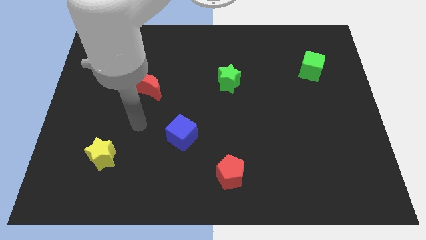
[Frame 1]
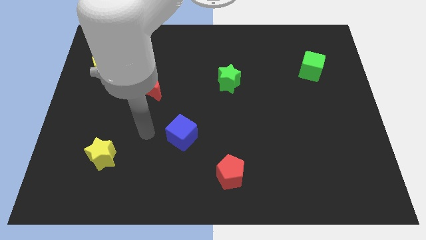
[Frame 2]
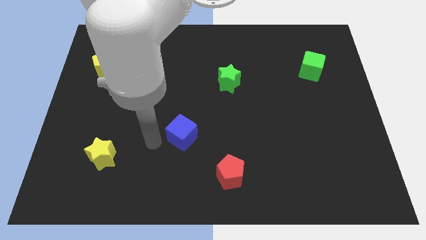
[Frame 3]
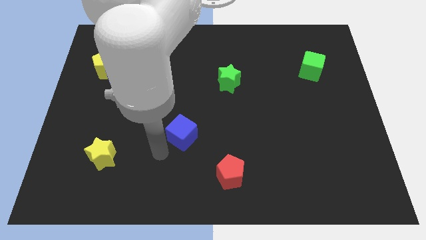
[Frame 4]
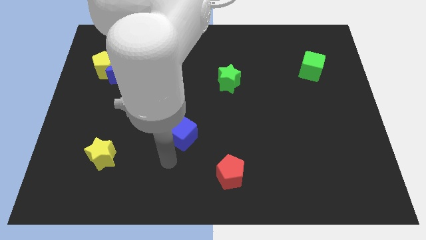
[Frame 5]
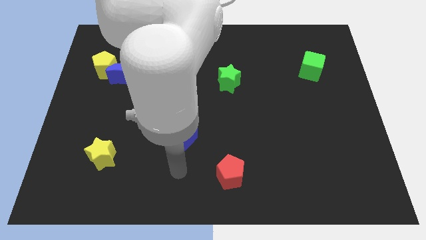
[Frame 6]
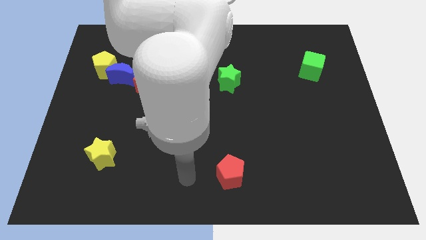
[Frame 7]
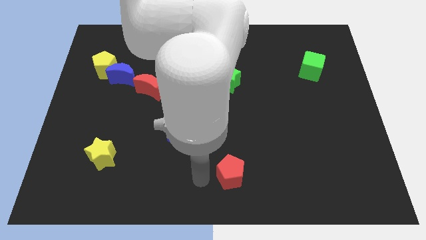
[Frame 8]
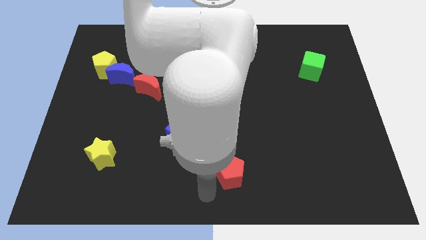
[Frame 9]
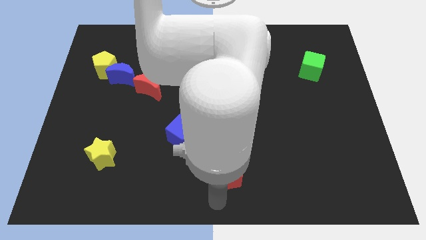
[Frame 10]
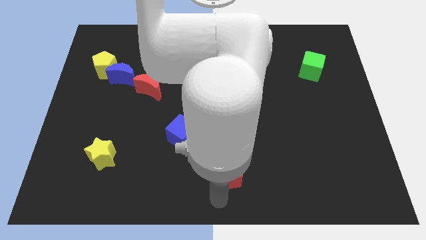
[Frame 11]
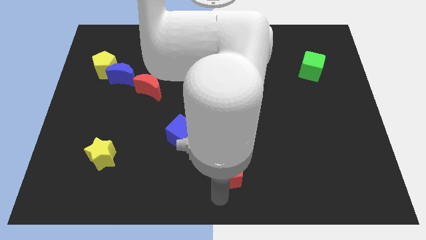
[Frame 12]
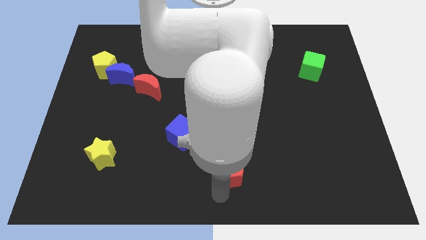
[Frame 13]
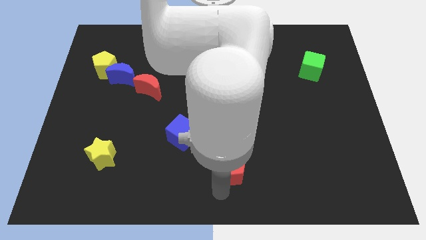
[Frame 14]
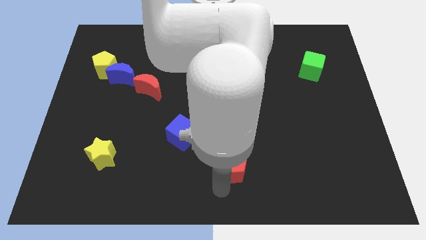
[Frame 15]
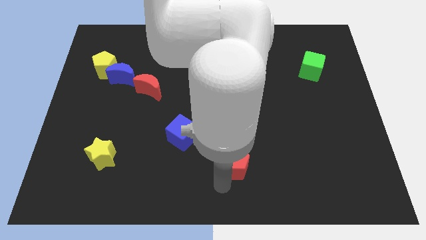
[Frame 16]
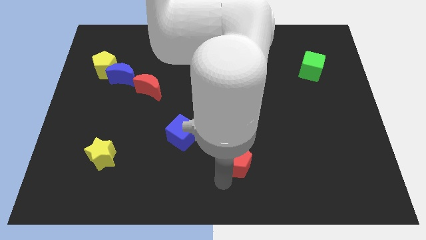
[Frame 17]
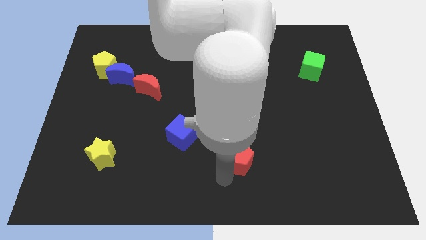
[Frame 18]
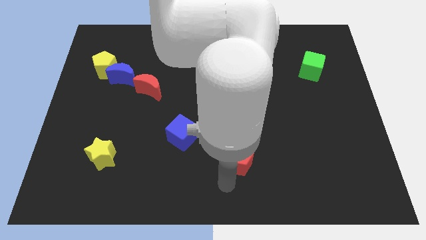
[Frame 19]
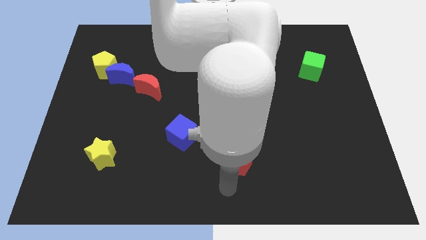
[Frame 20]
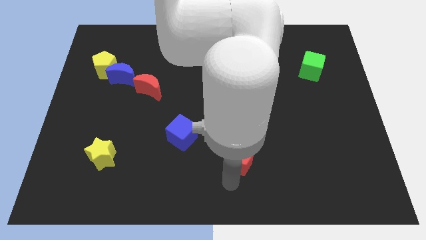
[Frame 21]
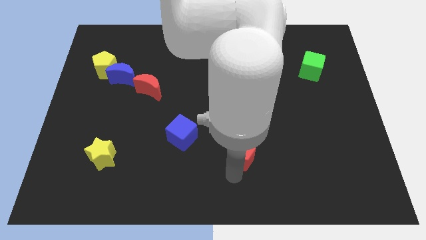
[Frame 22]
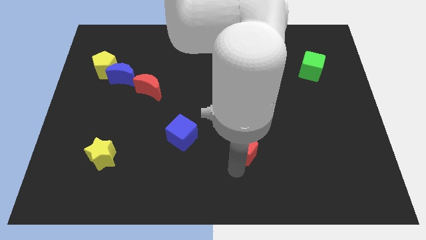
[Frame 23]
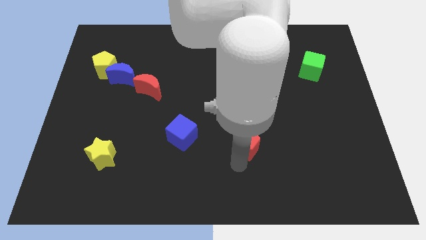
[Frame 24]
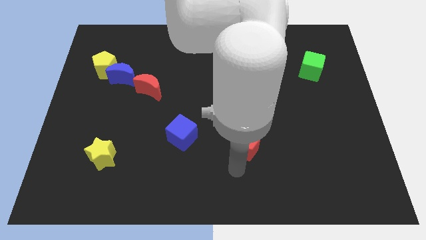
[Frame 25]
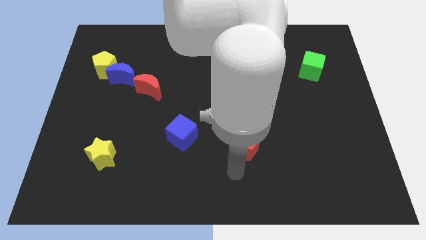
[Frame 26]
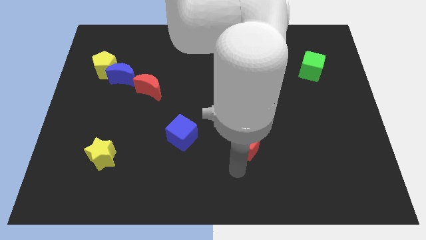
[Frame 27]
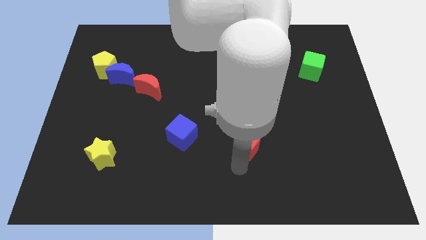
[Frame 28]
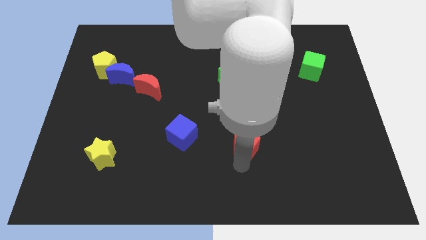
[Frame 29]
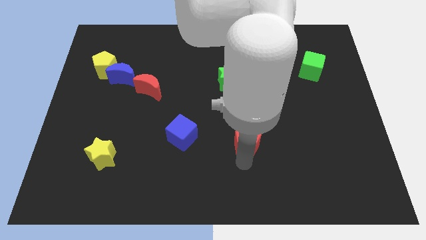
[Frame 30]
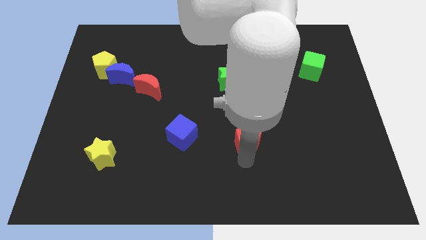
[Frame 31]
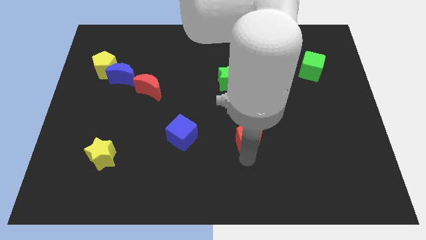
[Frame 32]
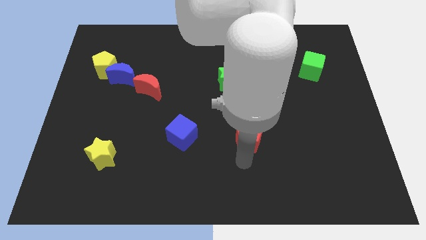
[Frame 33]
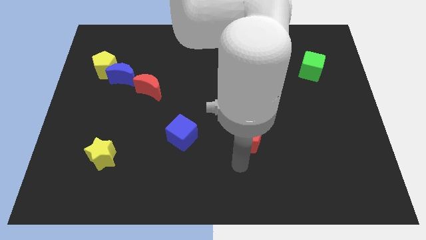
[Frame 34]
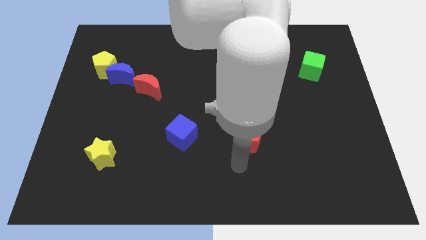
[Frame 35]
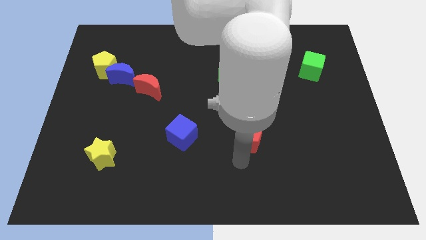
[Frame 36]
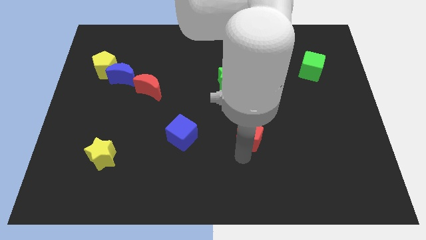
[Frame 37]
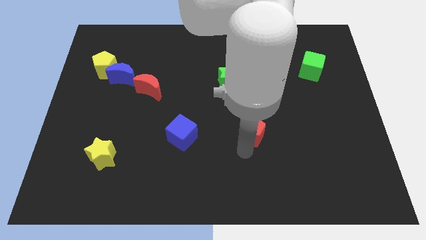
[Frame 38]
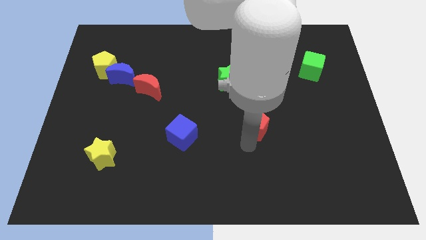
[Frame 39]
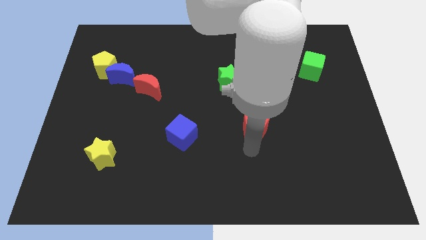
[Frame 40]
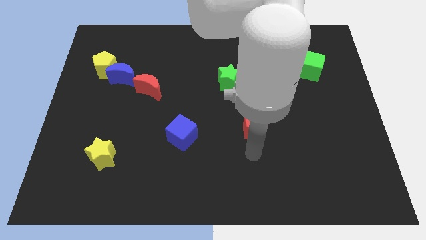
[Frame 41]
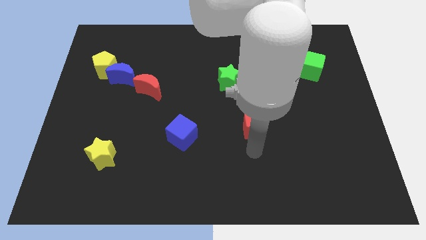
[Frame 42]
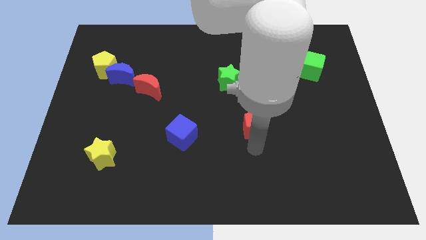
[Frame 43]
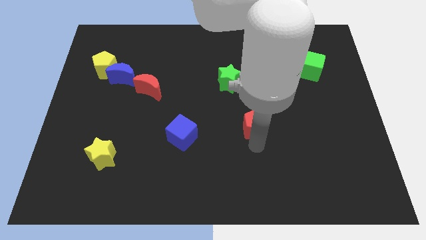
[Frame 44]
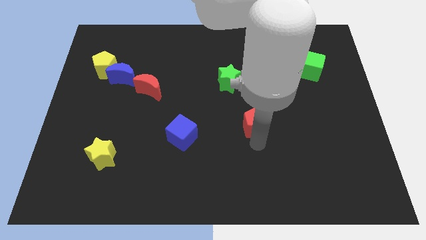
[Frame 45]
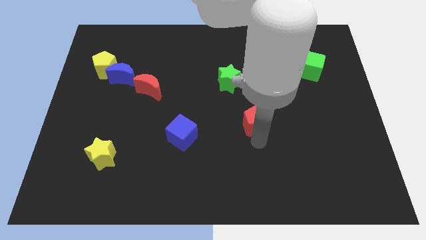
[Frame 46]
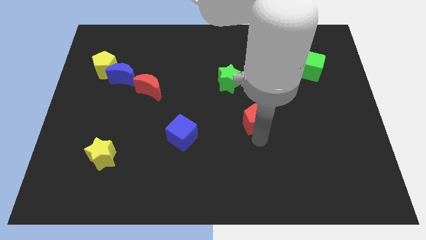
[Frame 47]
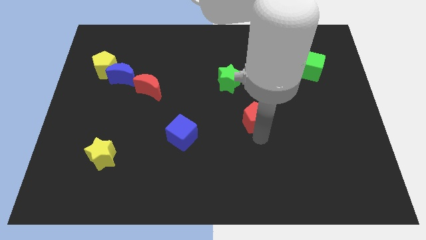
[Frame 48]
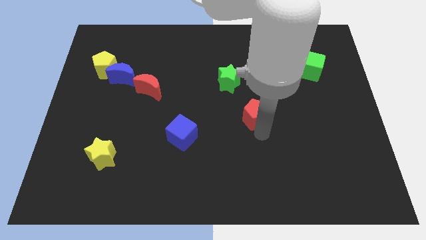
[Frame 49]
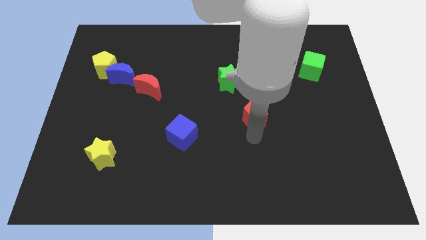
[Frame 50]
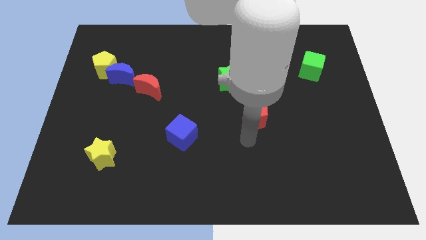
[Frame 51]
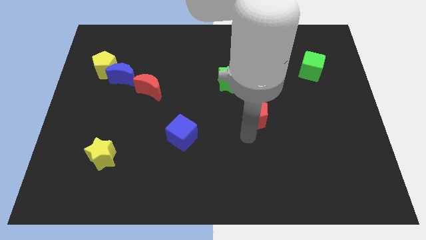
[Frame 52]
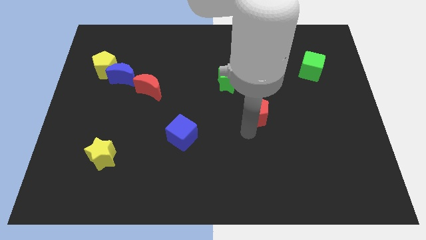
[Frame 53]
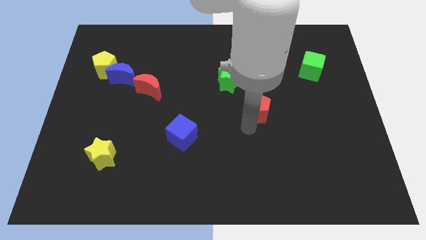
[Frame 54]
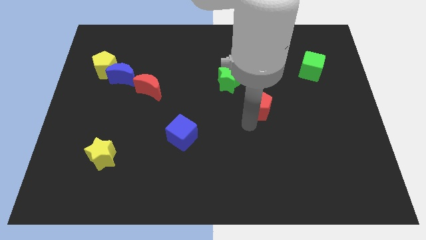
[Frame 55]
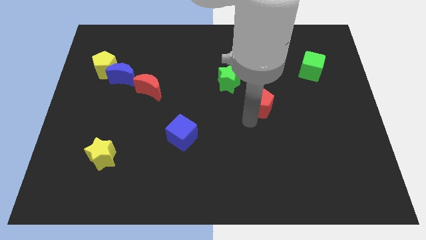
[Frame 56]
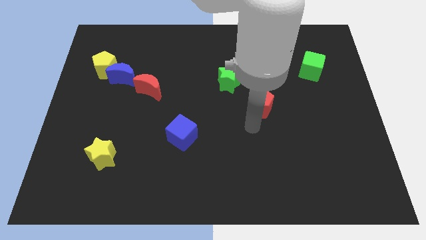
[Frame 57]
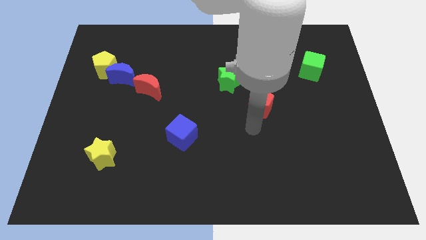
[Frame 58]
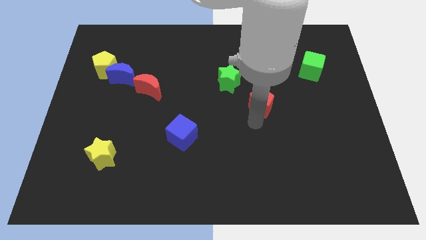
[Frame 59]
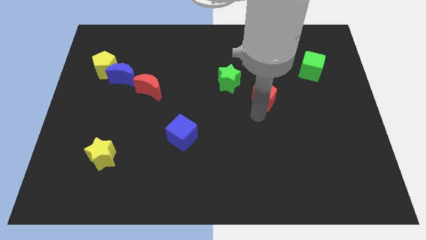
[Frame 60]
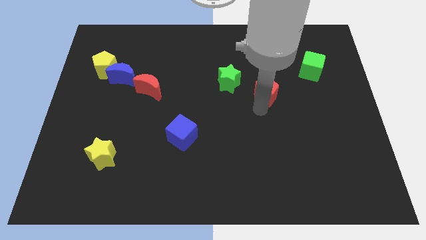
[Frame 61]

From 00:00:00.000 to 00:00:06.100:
move the red pentagon to the right side of the green star

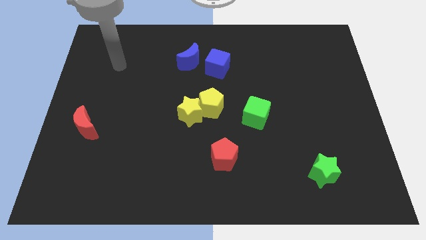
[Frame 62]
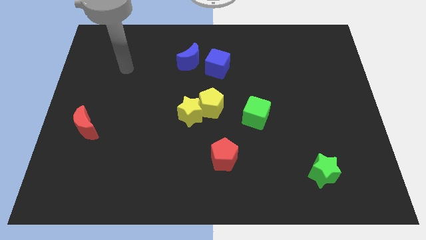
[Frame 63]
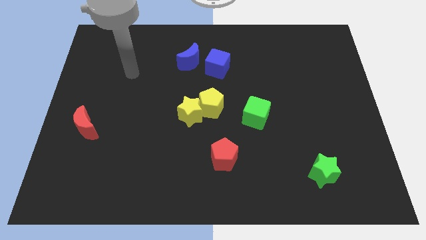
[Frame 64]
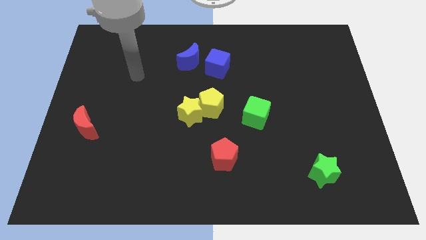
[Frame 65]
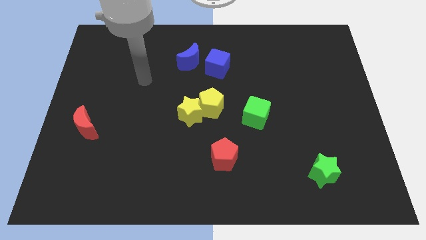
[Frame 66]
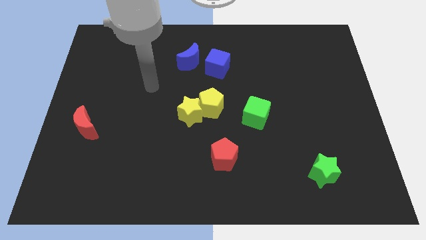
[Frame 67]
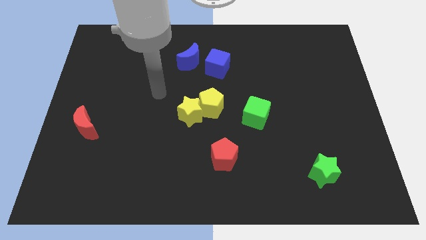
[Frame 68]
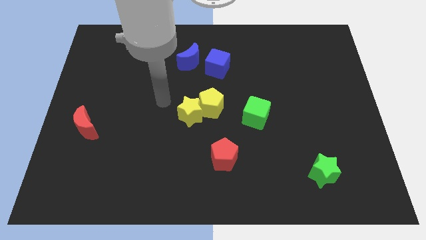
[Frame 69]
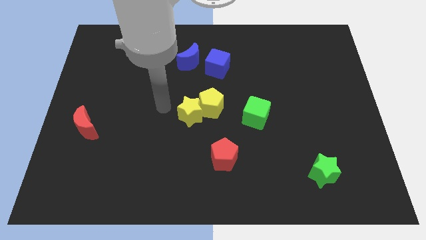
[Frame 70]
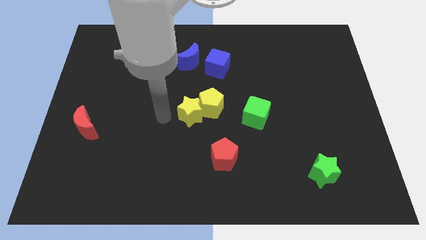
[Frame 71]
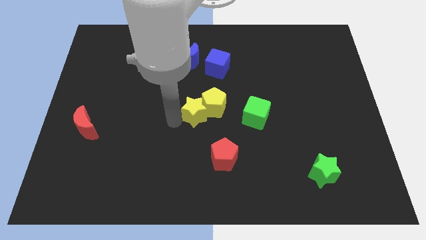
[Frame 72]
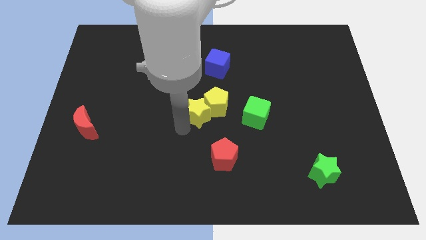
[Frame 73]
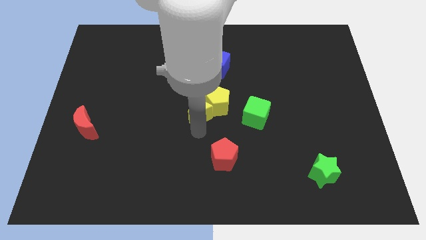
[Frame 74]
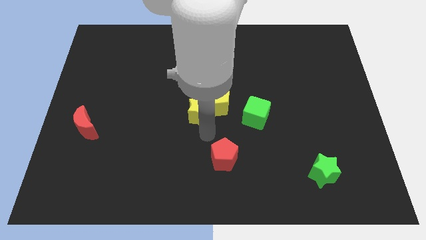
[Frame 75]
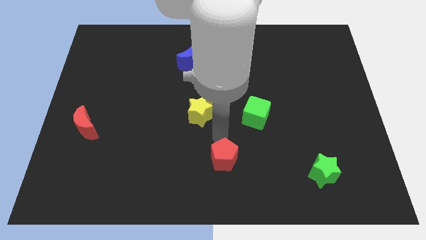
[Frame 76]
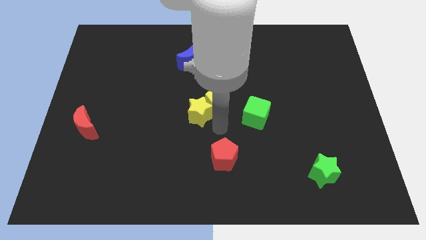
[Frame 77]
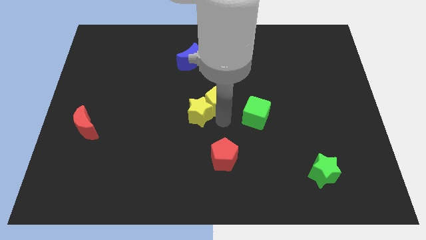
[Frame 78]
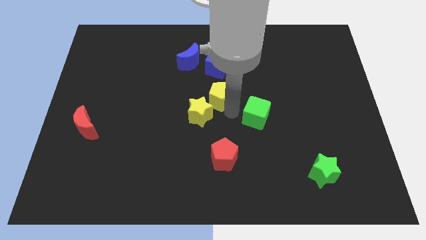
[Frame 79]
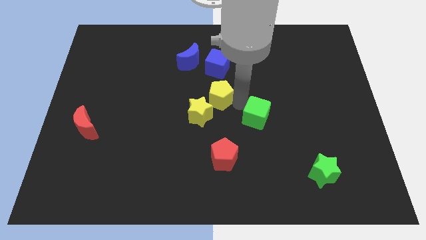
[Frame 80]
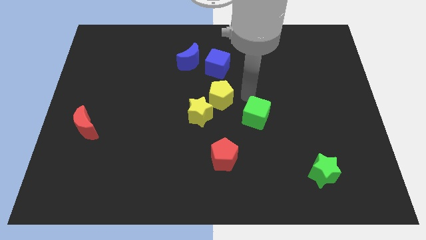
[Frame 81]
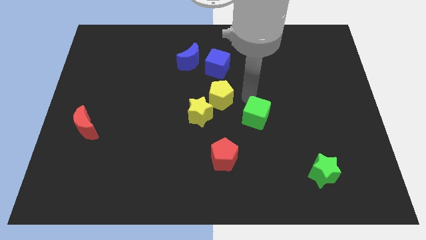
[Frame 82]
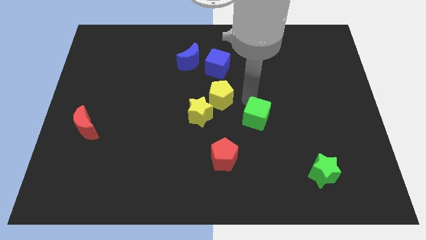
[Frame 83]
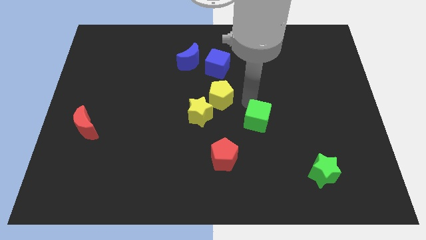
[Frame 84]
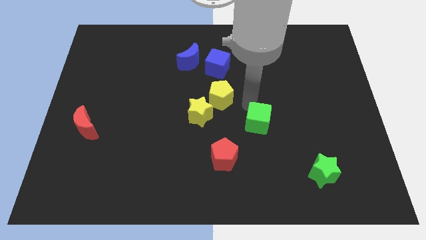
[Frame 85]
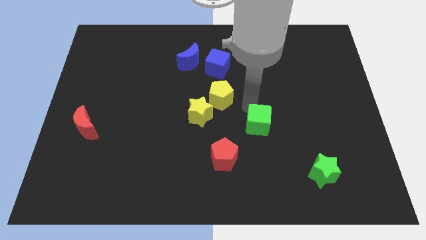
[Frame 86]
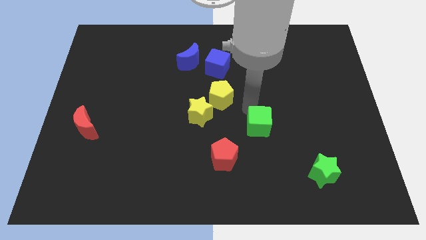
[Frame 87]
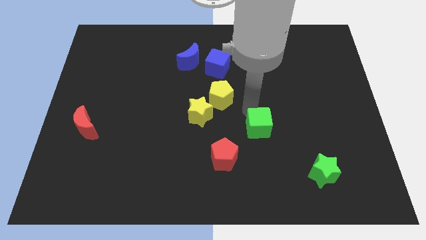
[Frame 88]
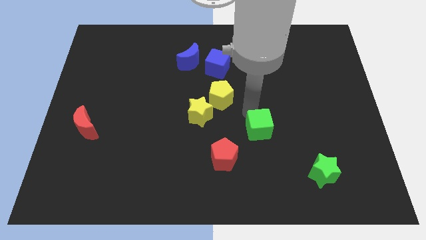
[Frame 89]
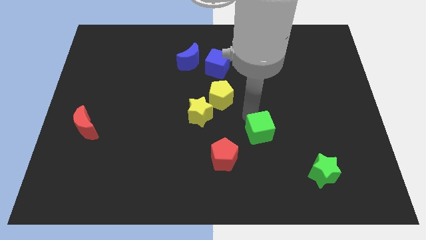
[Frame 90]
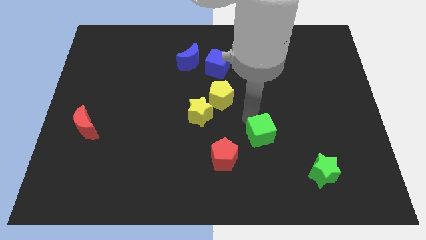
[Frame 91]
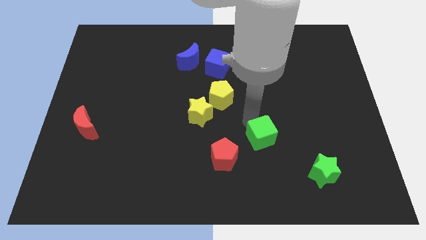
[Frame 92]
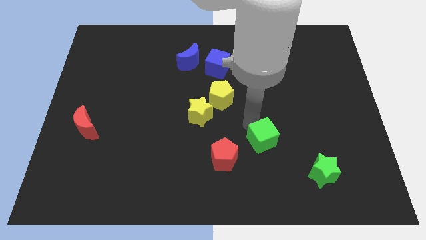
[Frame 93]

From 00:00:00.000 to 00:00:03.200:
move the green cube to the right side of the red pentagon
